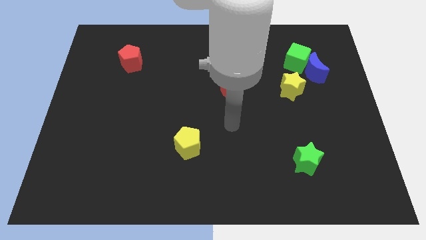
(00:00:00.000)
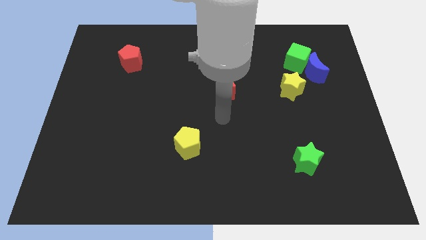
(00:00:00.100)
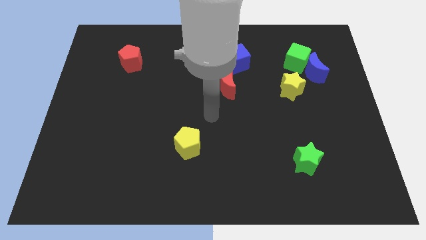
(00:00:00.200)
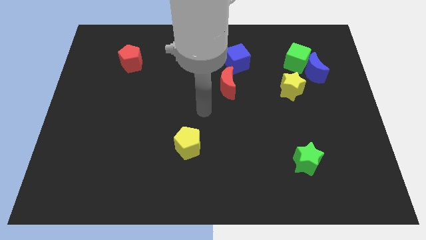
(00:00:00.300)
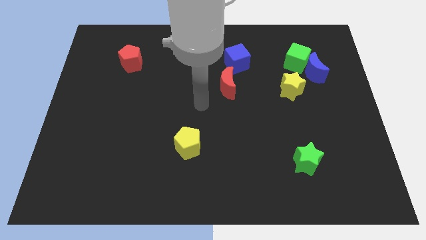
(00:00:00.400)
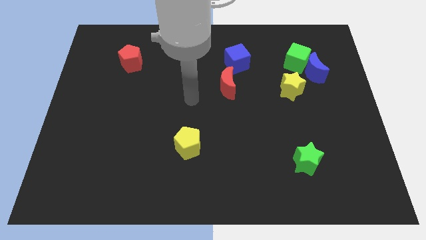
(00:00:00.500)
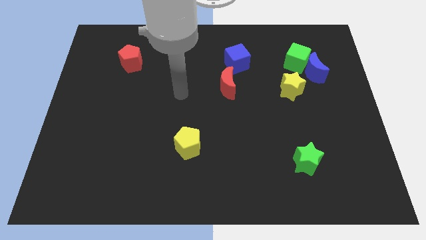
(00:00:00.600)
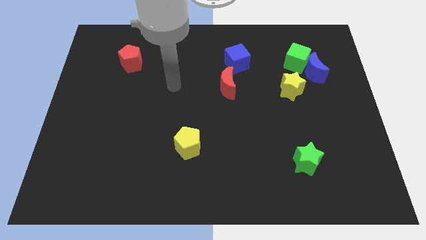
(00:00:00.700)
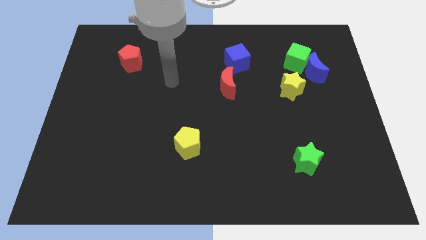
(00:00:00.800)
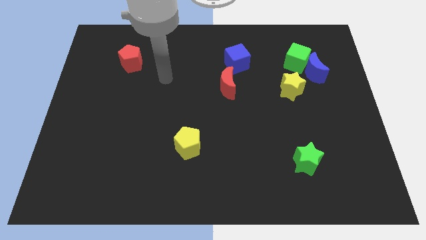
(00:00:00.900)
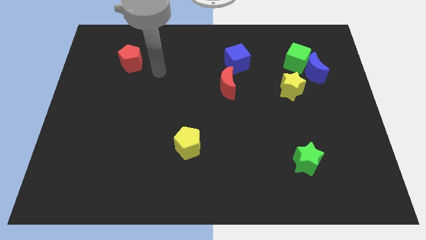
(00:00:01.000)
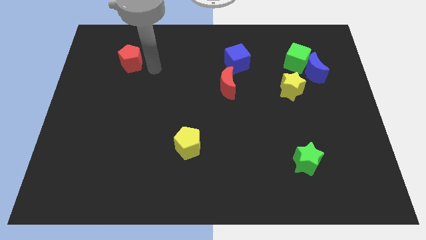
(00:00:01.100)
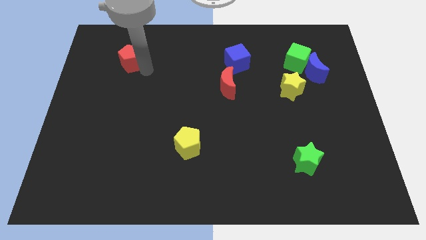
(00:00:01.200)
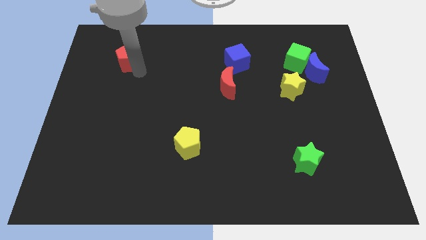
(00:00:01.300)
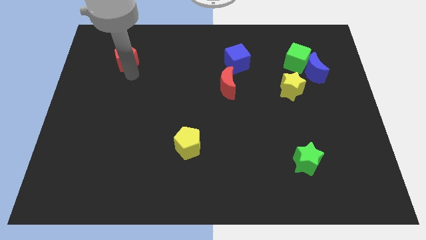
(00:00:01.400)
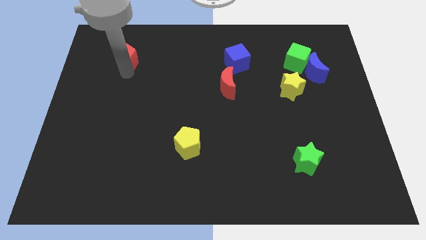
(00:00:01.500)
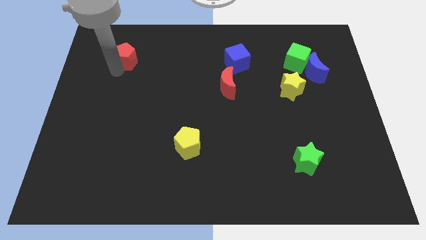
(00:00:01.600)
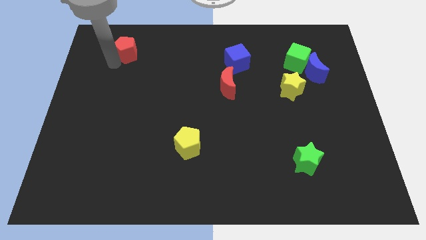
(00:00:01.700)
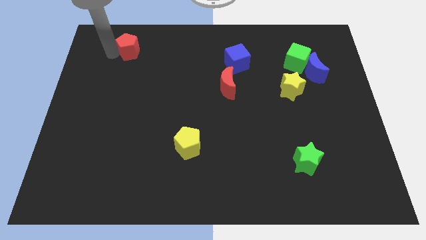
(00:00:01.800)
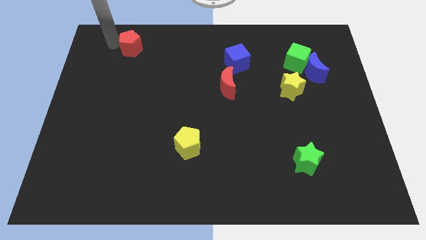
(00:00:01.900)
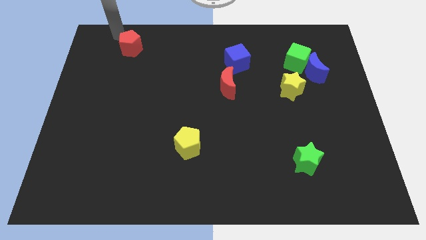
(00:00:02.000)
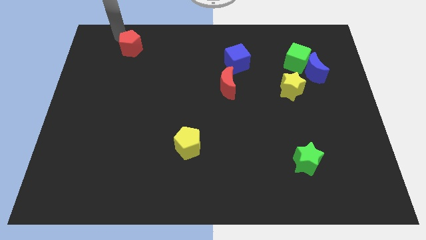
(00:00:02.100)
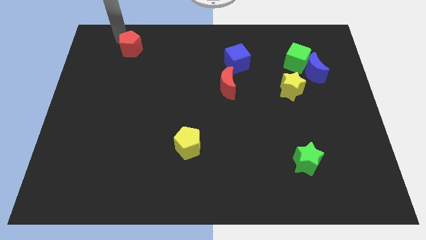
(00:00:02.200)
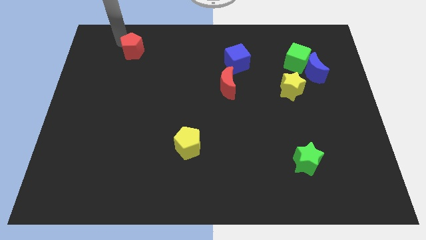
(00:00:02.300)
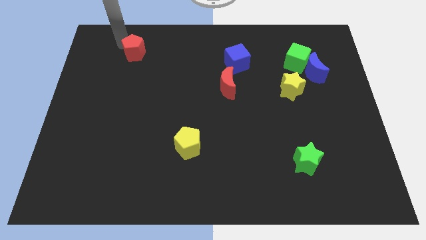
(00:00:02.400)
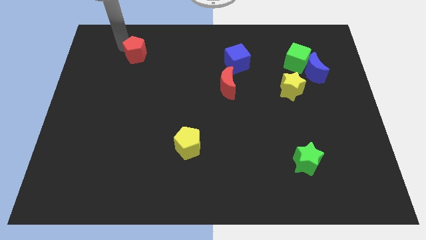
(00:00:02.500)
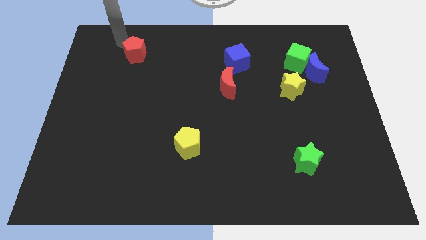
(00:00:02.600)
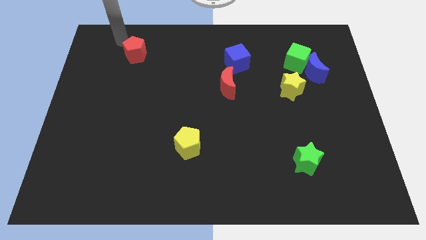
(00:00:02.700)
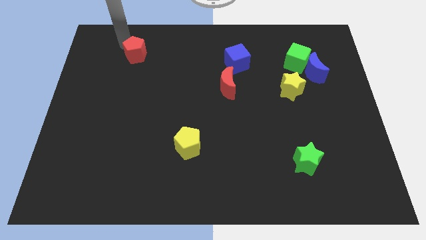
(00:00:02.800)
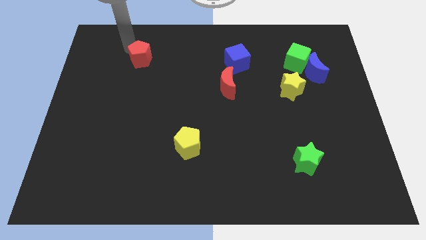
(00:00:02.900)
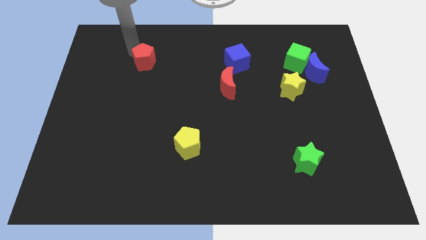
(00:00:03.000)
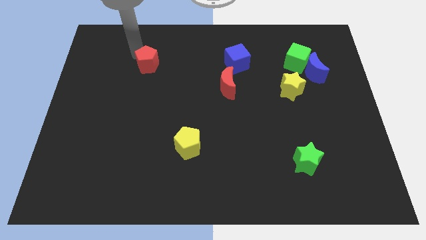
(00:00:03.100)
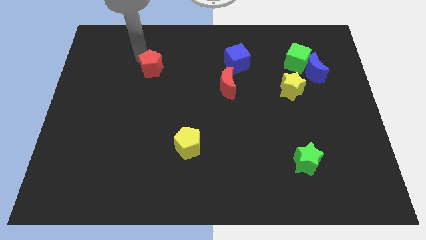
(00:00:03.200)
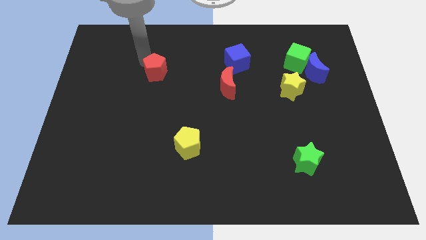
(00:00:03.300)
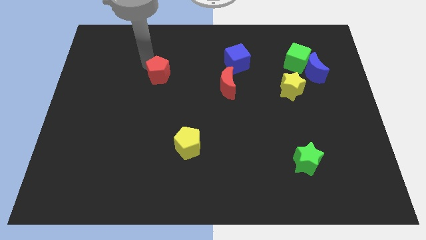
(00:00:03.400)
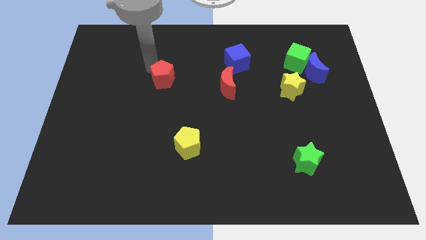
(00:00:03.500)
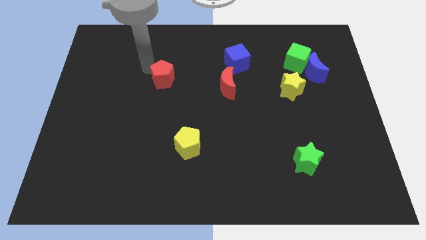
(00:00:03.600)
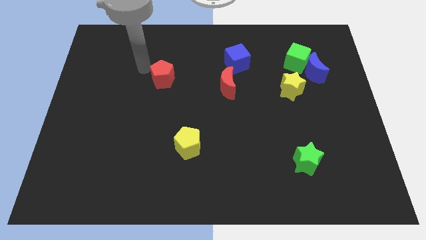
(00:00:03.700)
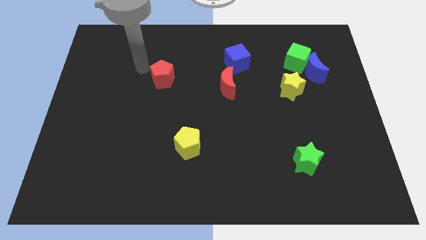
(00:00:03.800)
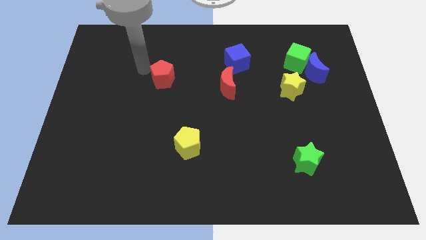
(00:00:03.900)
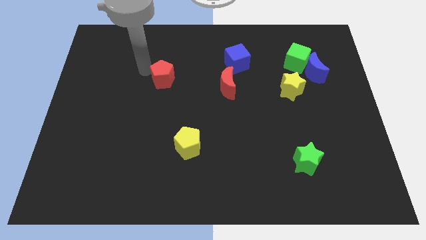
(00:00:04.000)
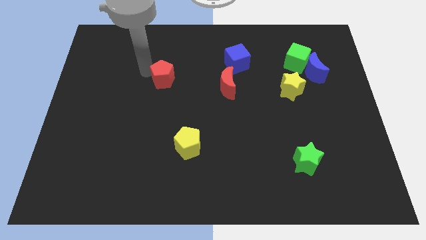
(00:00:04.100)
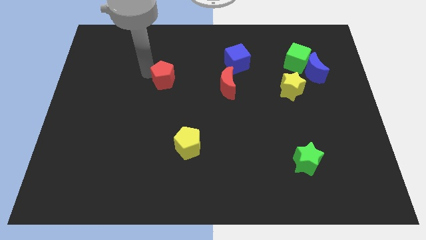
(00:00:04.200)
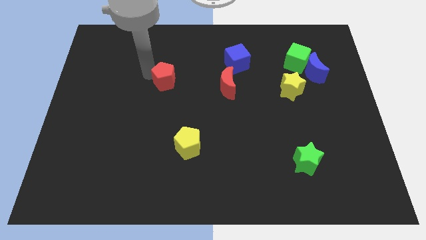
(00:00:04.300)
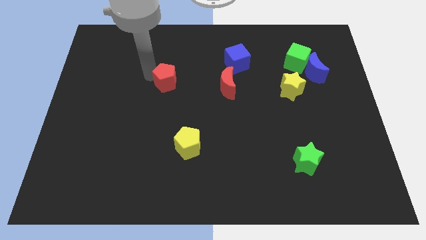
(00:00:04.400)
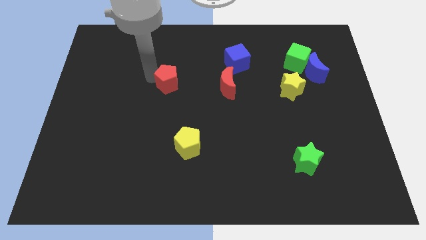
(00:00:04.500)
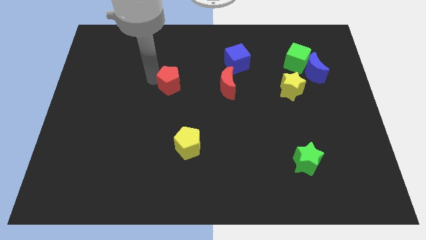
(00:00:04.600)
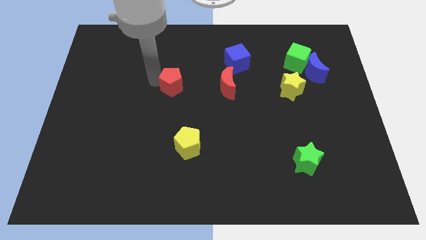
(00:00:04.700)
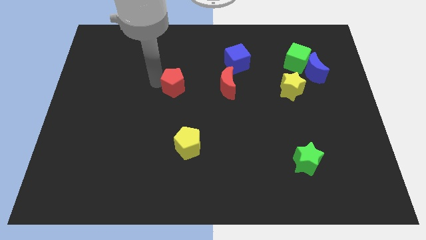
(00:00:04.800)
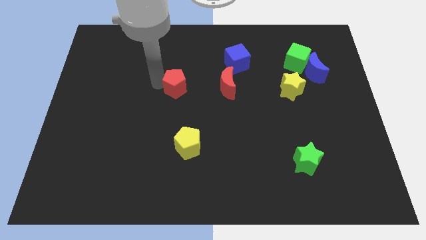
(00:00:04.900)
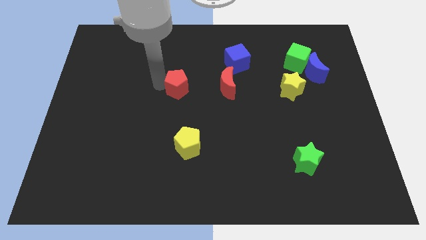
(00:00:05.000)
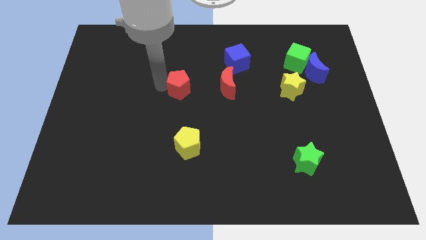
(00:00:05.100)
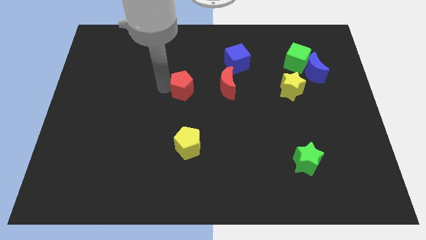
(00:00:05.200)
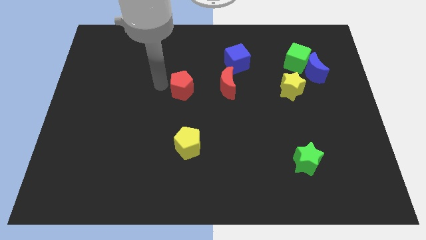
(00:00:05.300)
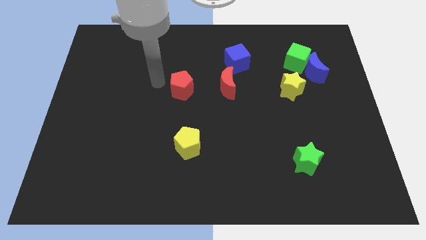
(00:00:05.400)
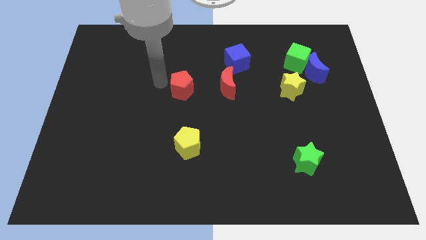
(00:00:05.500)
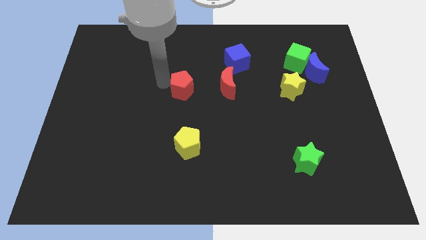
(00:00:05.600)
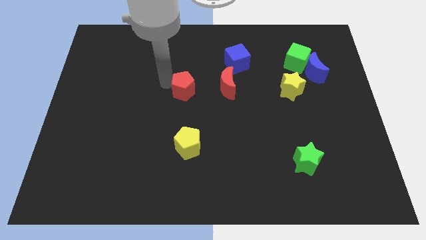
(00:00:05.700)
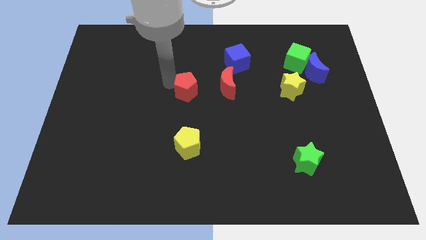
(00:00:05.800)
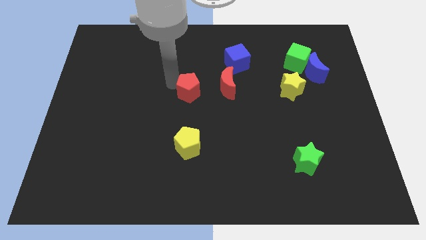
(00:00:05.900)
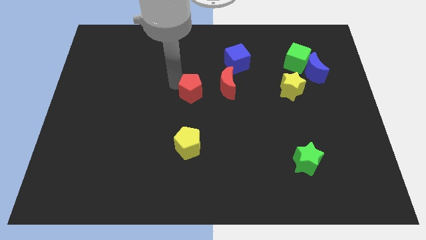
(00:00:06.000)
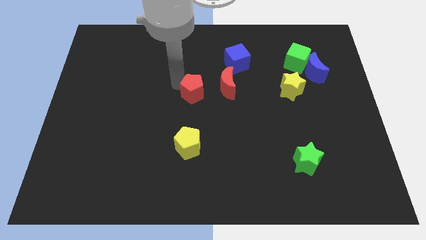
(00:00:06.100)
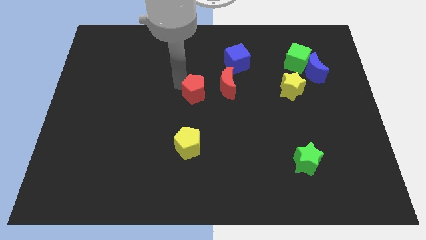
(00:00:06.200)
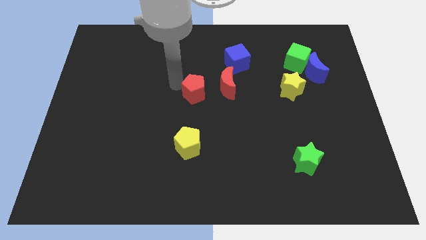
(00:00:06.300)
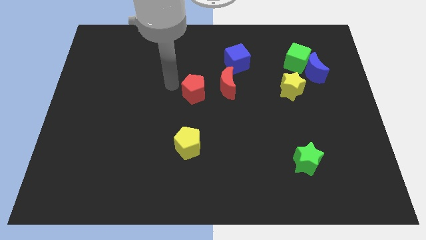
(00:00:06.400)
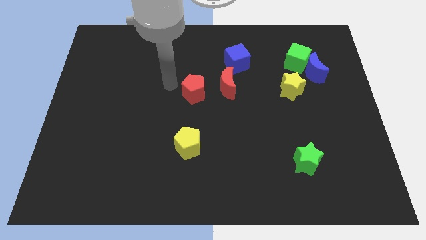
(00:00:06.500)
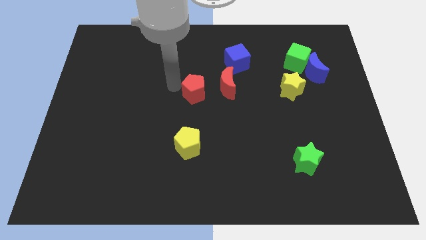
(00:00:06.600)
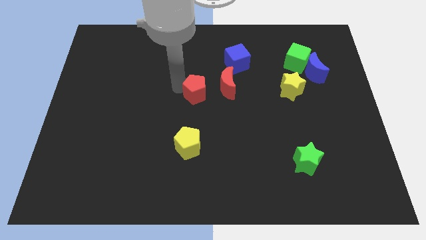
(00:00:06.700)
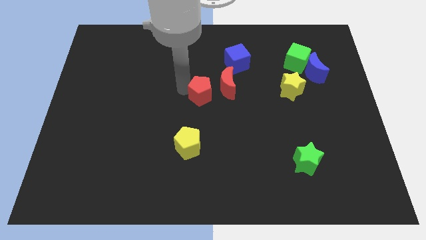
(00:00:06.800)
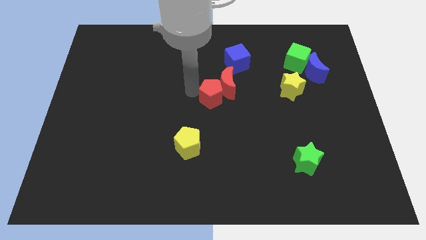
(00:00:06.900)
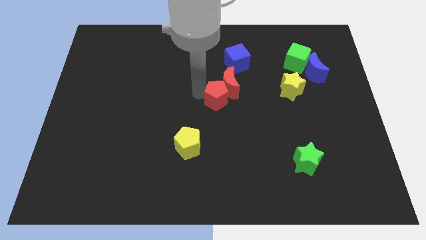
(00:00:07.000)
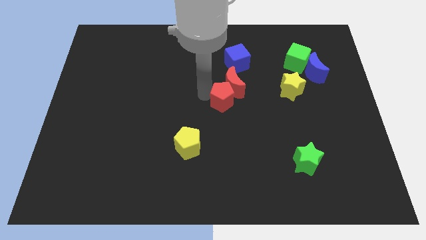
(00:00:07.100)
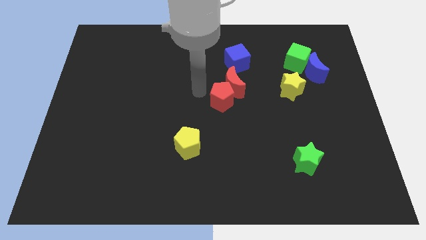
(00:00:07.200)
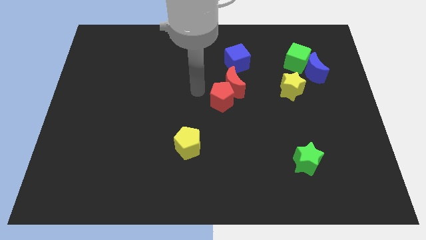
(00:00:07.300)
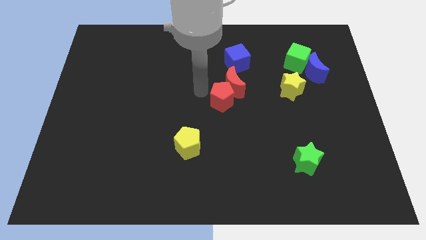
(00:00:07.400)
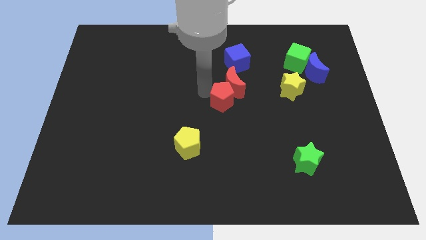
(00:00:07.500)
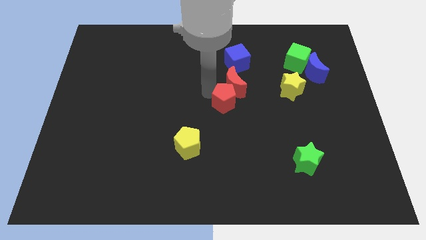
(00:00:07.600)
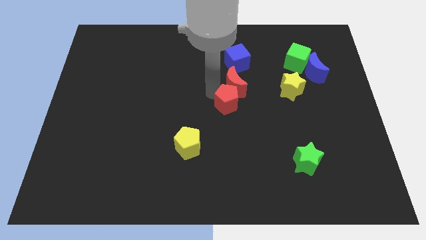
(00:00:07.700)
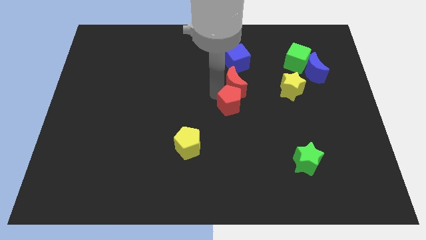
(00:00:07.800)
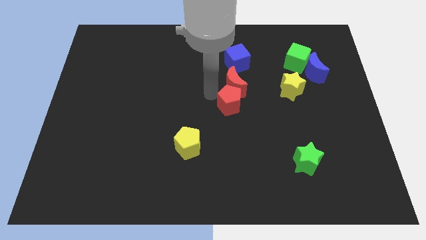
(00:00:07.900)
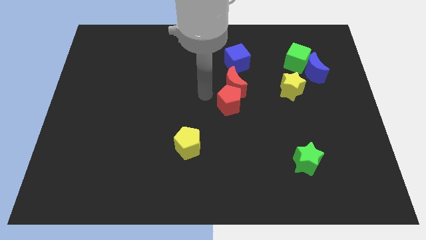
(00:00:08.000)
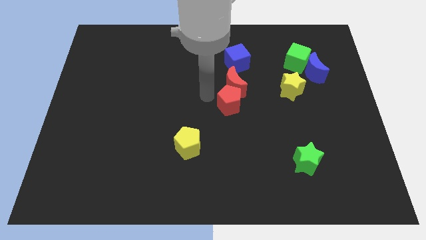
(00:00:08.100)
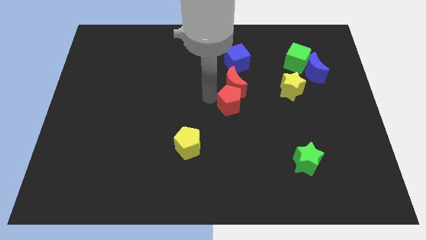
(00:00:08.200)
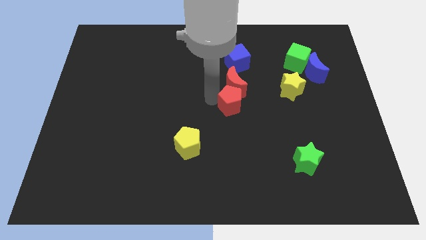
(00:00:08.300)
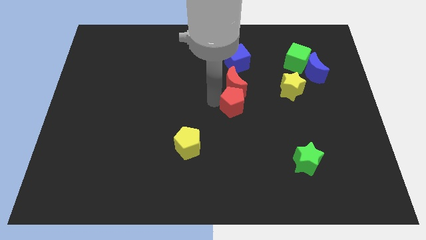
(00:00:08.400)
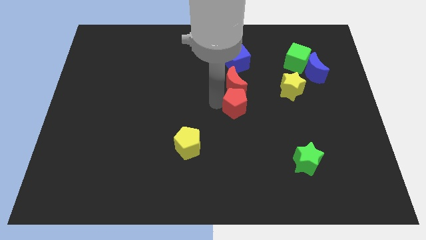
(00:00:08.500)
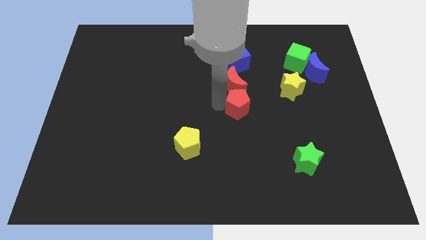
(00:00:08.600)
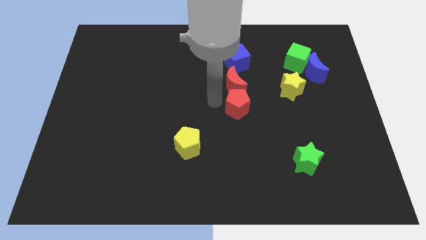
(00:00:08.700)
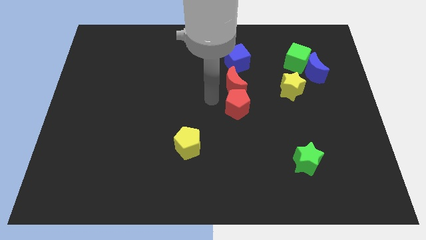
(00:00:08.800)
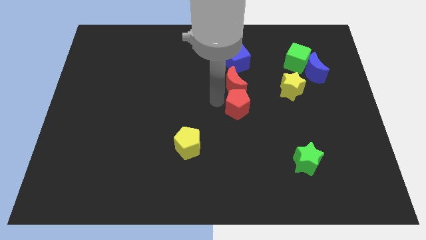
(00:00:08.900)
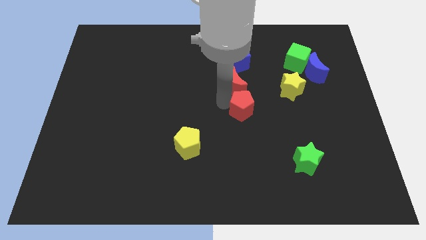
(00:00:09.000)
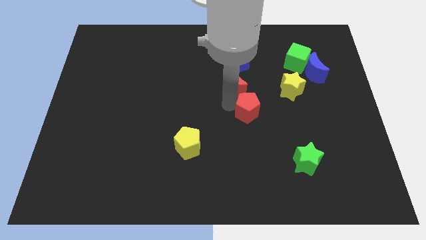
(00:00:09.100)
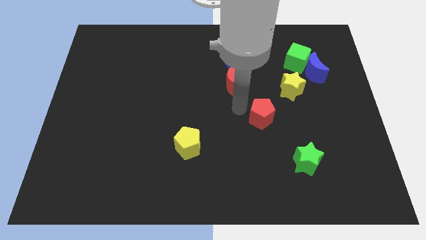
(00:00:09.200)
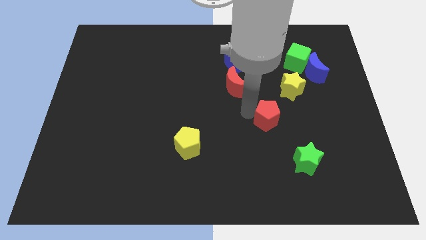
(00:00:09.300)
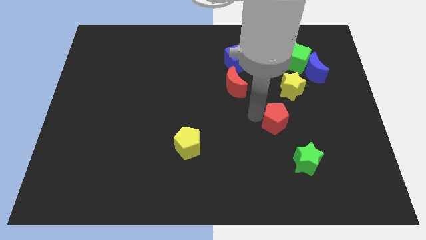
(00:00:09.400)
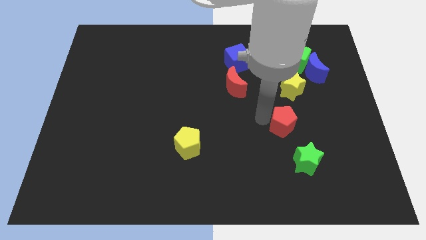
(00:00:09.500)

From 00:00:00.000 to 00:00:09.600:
push the red pentagon below the yellow star
